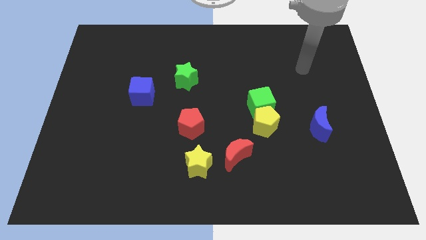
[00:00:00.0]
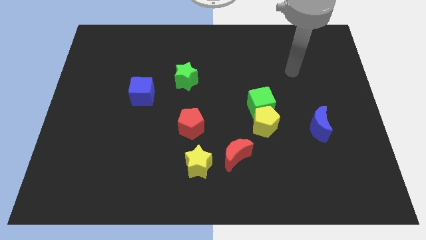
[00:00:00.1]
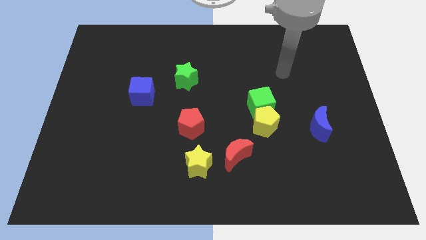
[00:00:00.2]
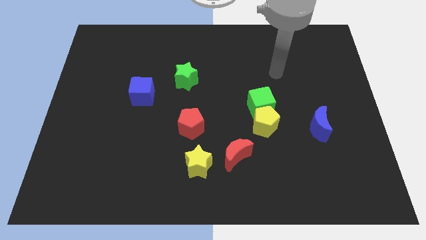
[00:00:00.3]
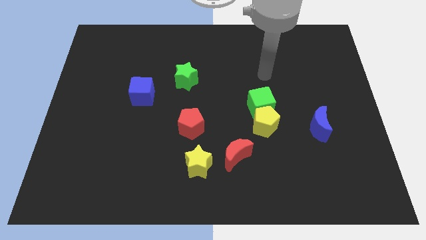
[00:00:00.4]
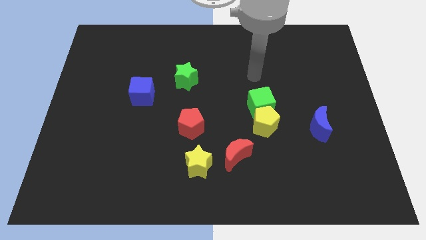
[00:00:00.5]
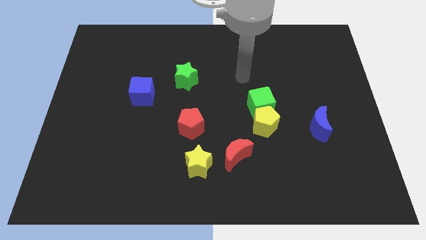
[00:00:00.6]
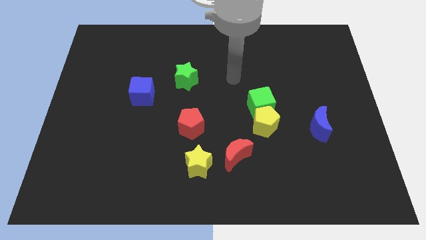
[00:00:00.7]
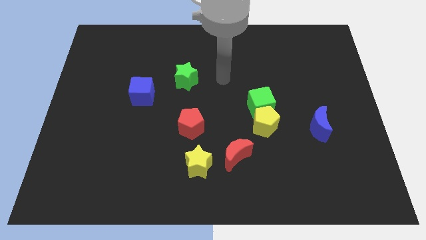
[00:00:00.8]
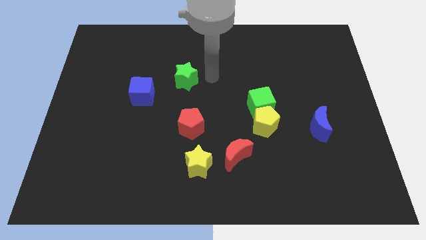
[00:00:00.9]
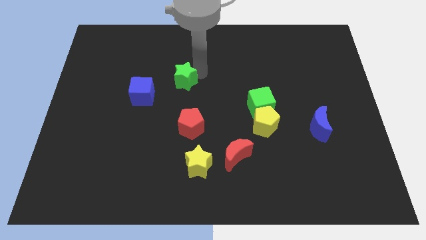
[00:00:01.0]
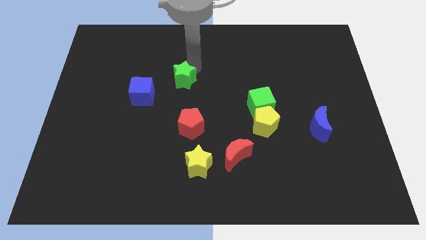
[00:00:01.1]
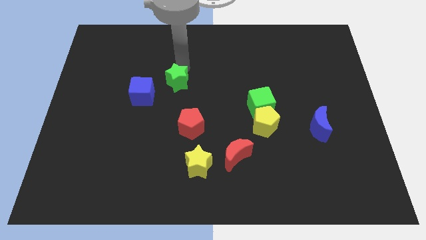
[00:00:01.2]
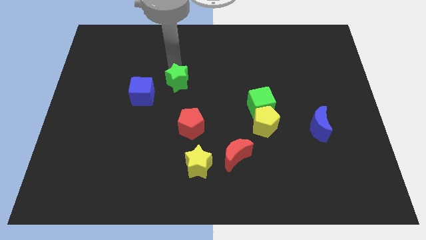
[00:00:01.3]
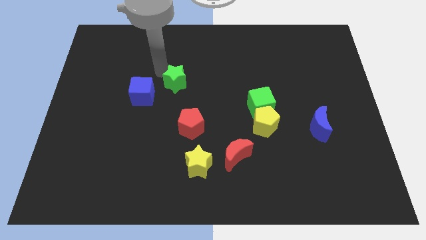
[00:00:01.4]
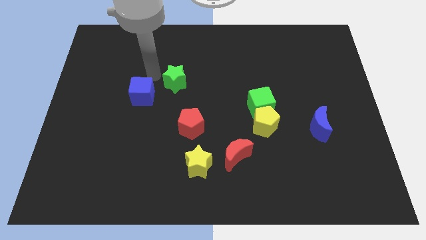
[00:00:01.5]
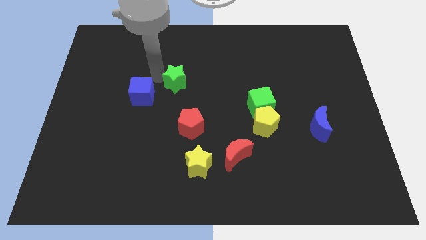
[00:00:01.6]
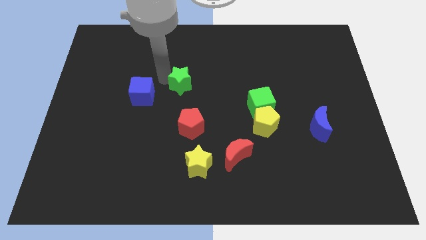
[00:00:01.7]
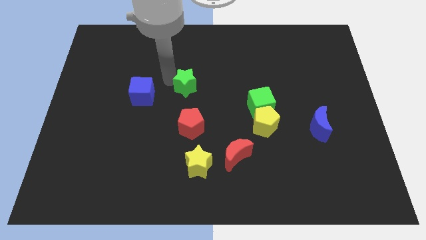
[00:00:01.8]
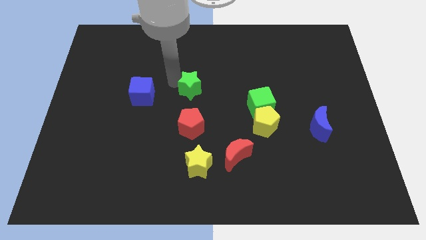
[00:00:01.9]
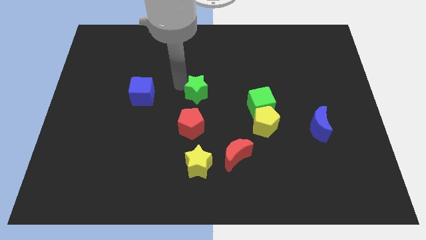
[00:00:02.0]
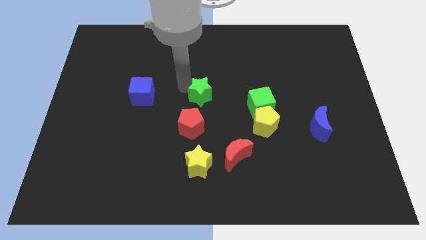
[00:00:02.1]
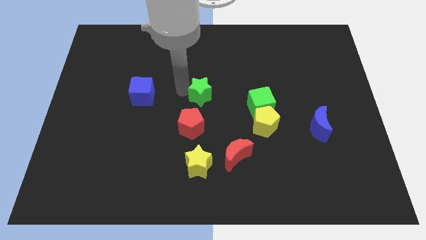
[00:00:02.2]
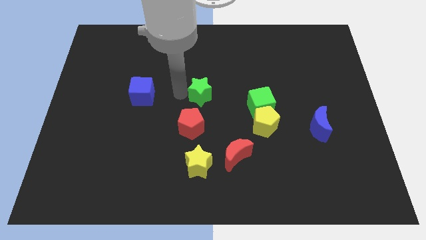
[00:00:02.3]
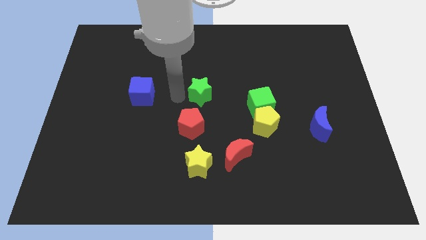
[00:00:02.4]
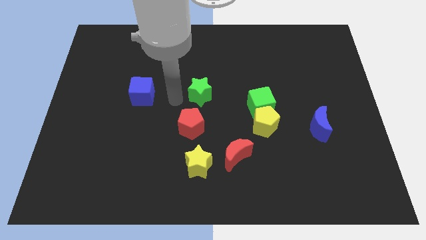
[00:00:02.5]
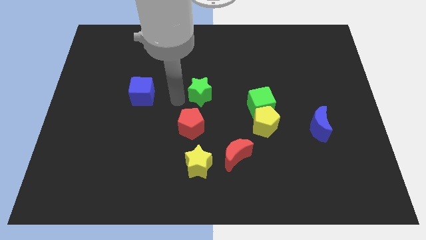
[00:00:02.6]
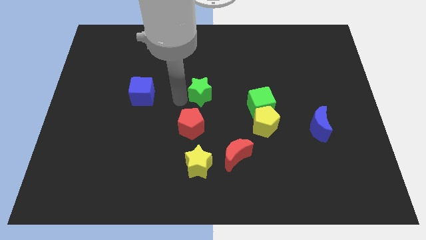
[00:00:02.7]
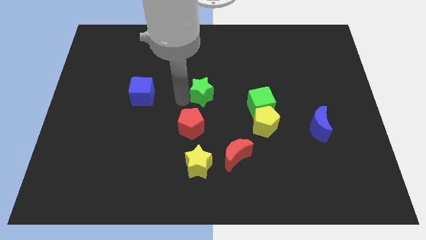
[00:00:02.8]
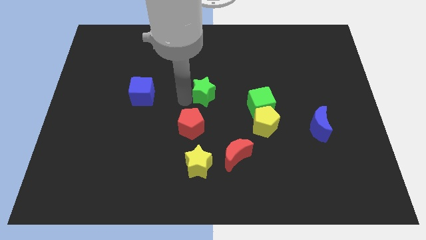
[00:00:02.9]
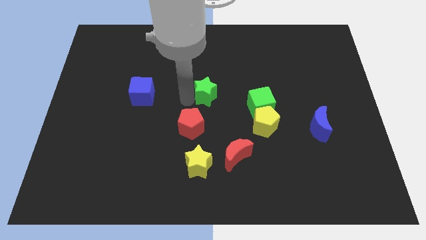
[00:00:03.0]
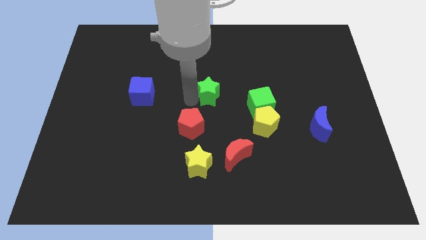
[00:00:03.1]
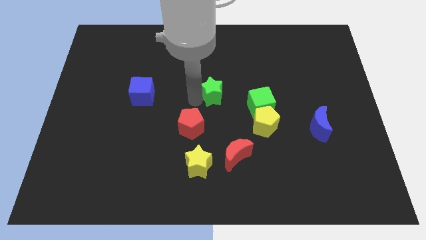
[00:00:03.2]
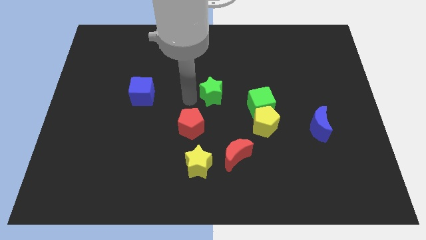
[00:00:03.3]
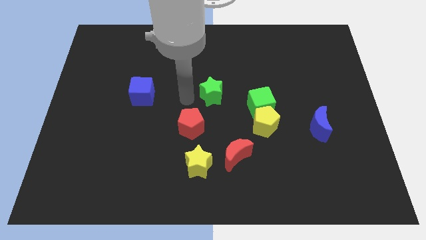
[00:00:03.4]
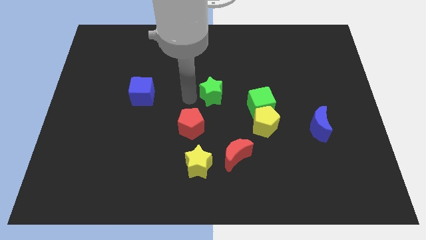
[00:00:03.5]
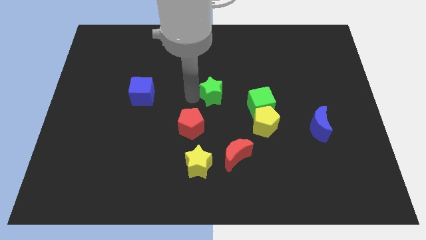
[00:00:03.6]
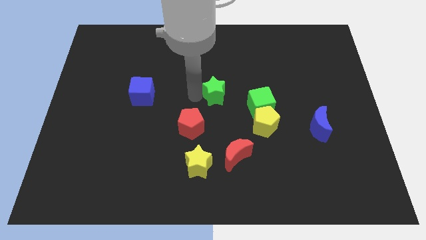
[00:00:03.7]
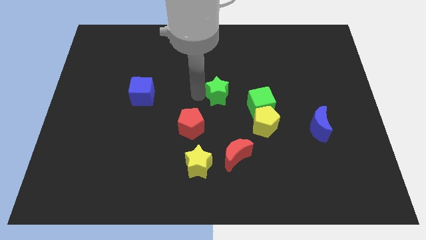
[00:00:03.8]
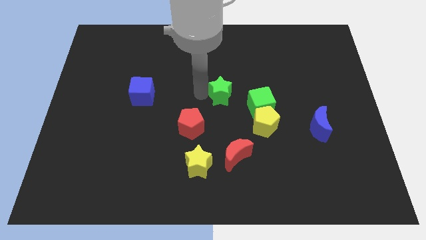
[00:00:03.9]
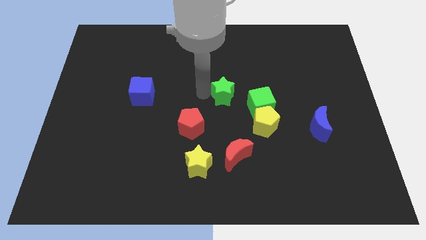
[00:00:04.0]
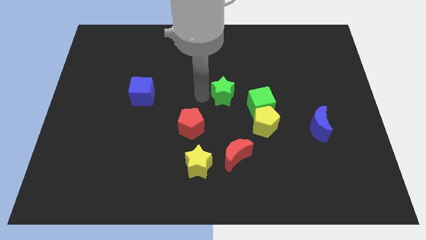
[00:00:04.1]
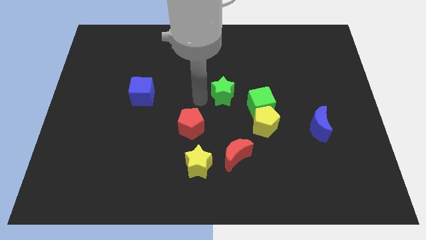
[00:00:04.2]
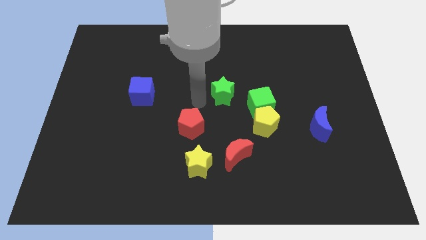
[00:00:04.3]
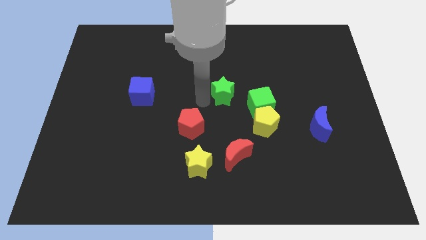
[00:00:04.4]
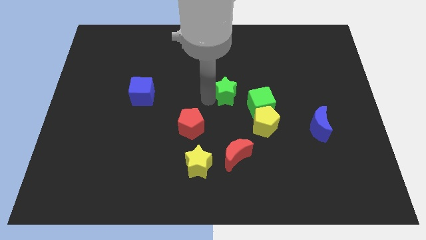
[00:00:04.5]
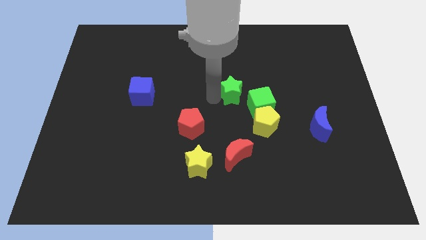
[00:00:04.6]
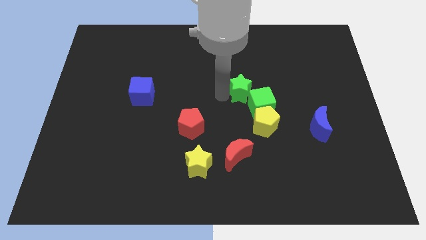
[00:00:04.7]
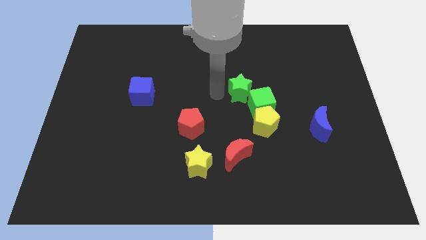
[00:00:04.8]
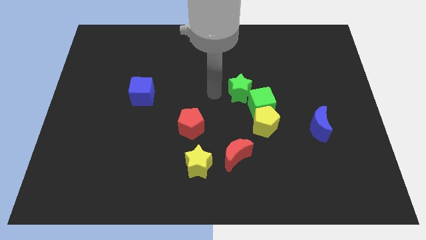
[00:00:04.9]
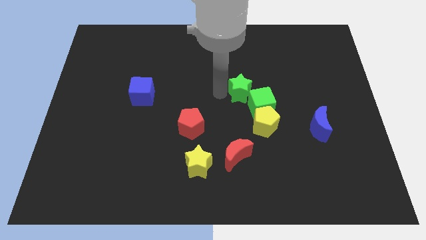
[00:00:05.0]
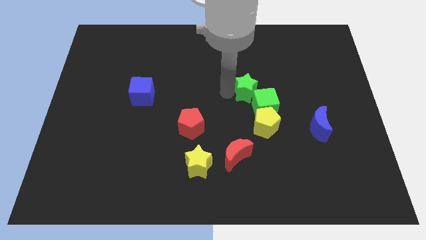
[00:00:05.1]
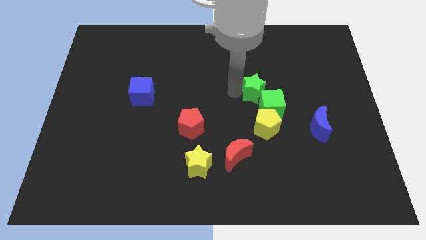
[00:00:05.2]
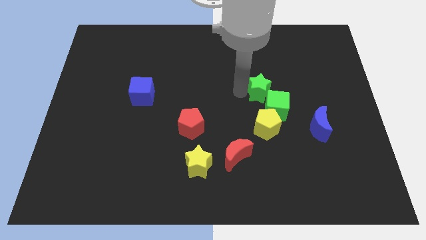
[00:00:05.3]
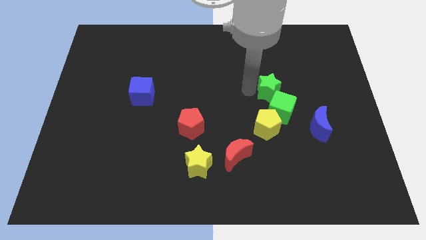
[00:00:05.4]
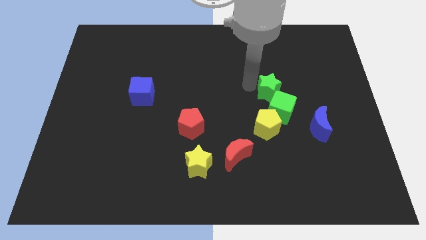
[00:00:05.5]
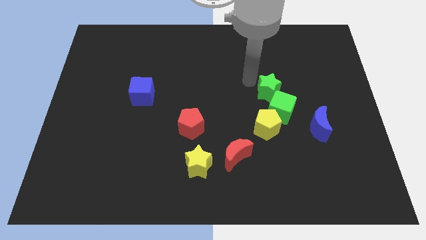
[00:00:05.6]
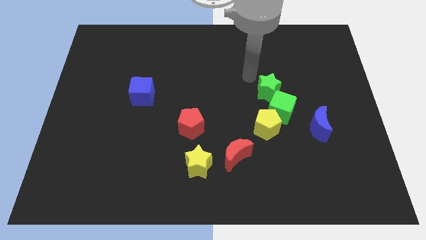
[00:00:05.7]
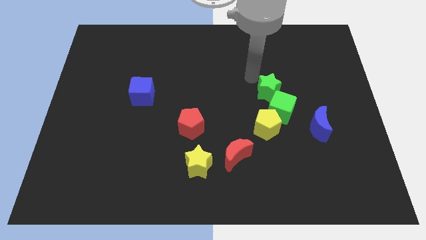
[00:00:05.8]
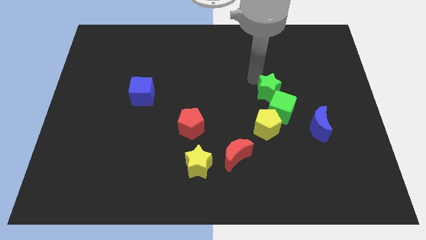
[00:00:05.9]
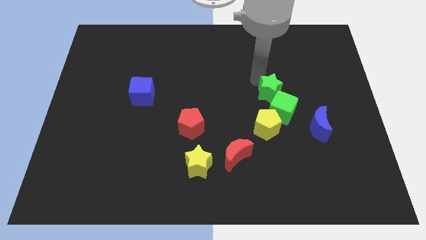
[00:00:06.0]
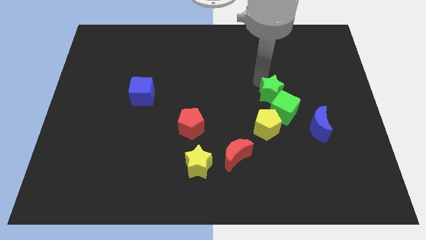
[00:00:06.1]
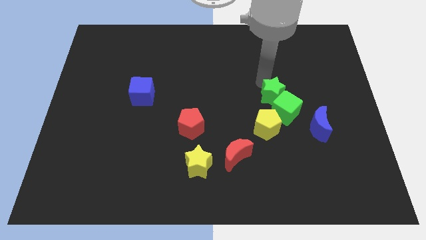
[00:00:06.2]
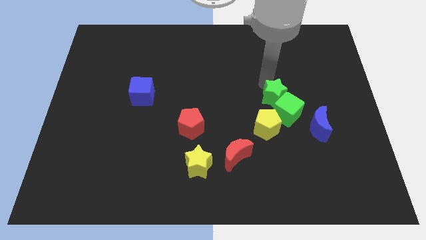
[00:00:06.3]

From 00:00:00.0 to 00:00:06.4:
push the green star to the top left of the blue moon
